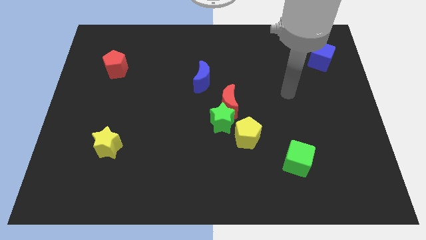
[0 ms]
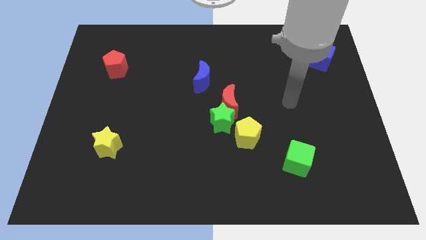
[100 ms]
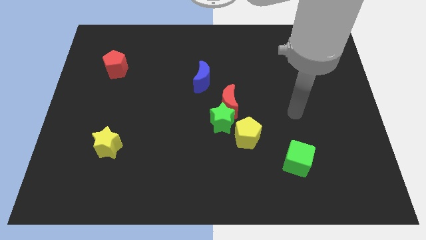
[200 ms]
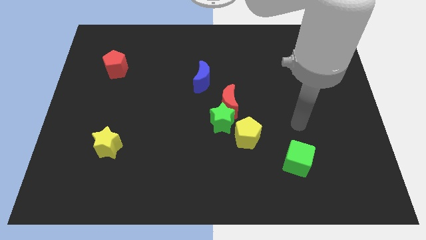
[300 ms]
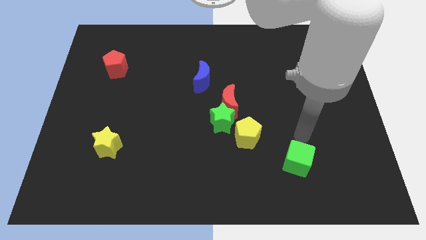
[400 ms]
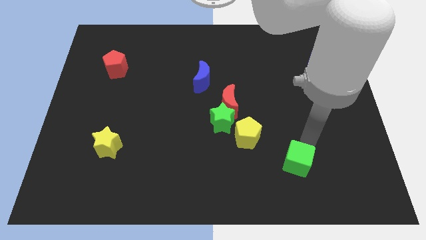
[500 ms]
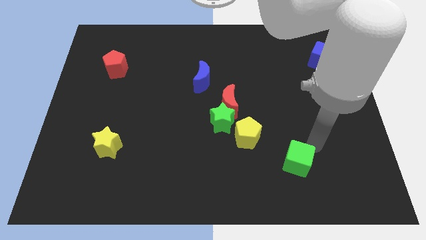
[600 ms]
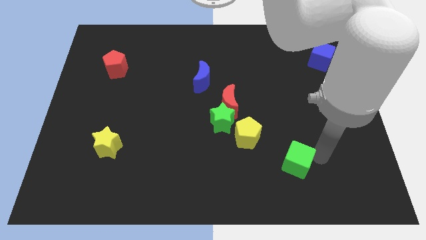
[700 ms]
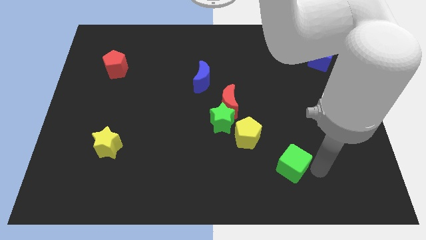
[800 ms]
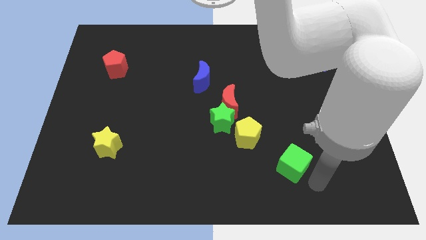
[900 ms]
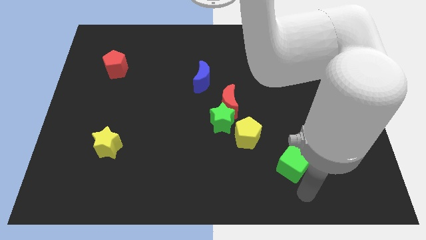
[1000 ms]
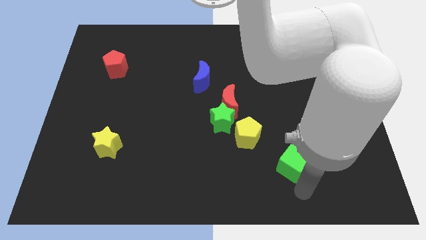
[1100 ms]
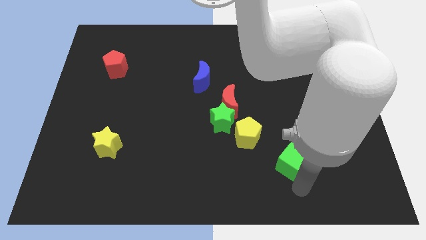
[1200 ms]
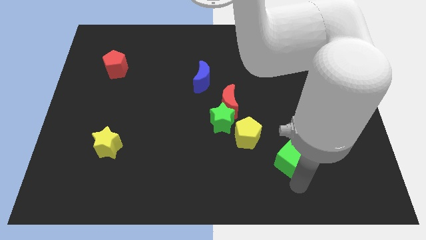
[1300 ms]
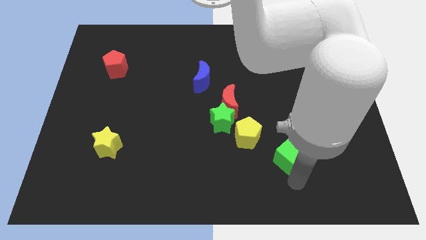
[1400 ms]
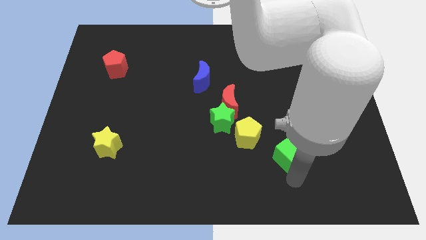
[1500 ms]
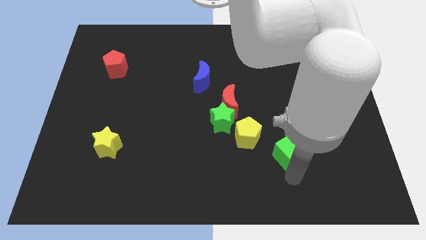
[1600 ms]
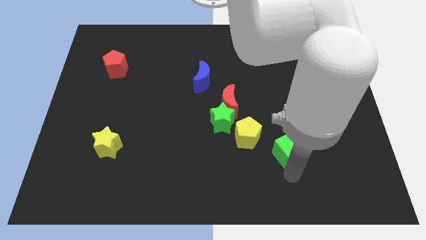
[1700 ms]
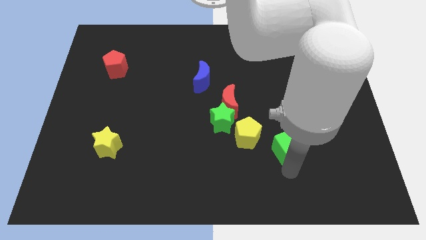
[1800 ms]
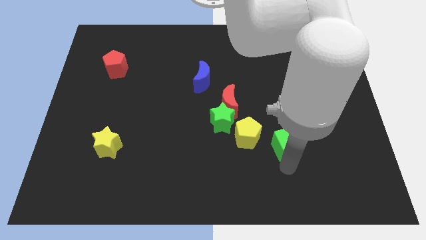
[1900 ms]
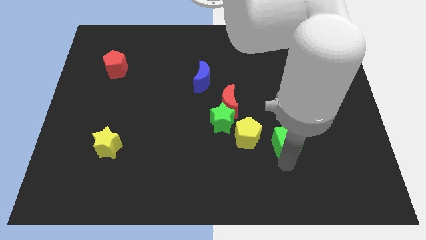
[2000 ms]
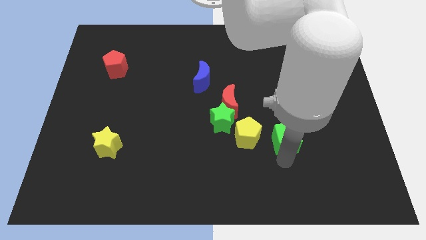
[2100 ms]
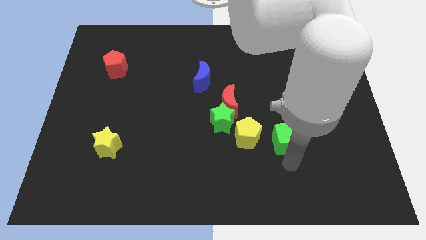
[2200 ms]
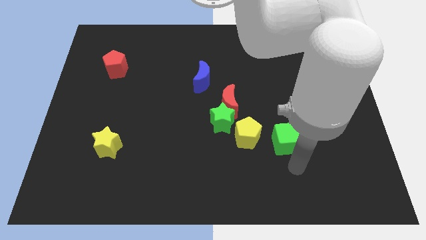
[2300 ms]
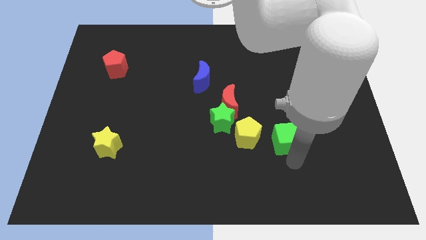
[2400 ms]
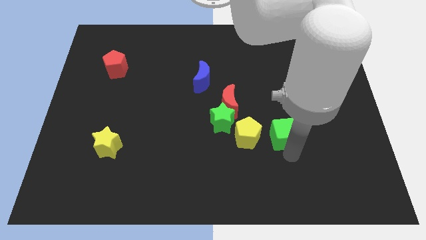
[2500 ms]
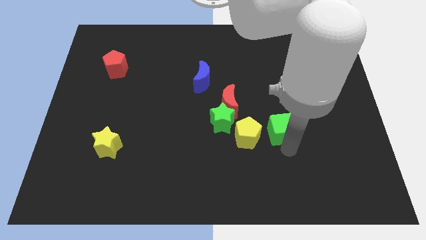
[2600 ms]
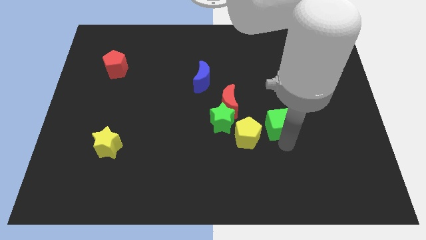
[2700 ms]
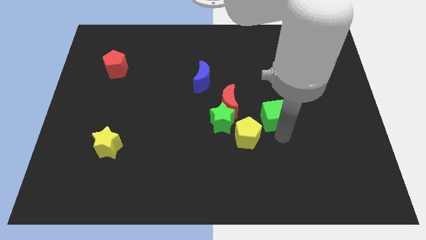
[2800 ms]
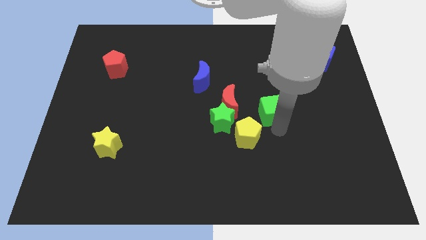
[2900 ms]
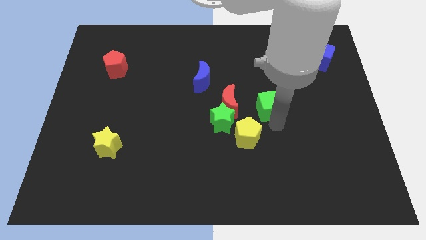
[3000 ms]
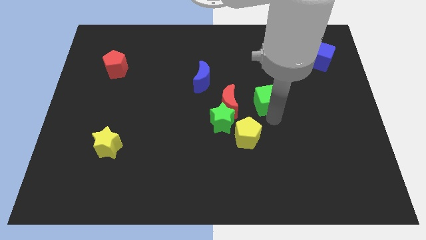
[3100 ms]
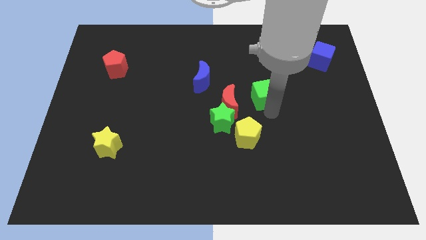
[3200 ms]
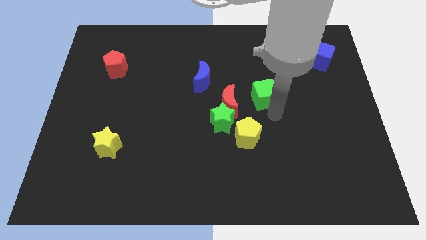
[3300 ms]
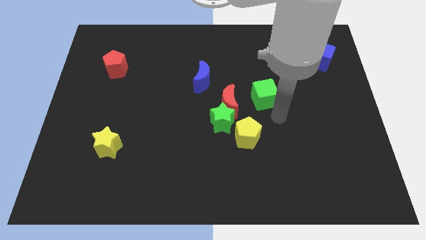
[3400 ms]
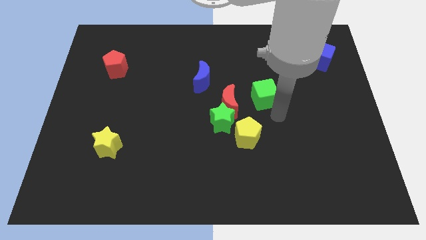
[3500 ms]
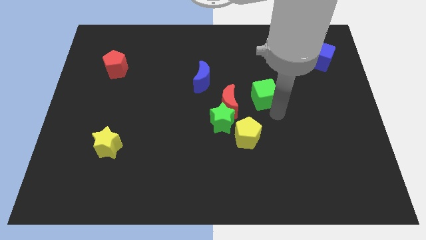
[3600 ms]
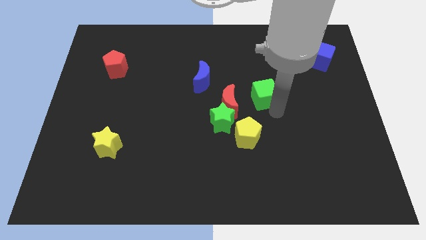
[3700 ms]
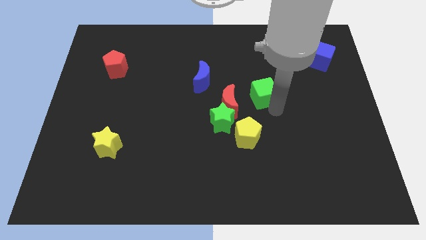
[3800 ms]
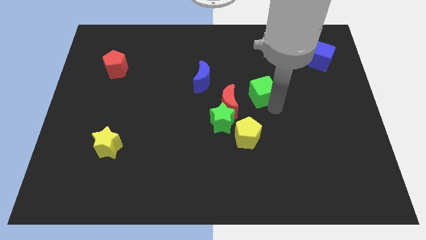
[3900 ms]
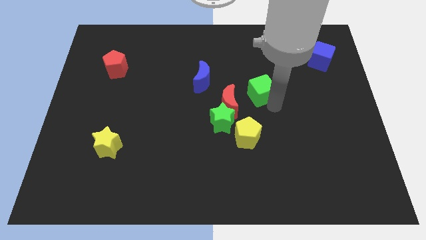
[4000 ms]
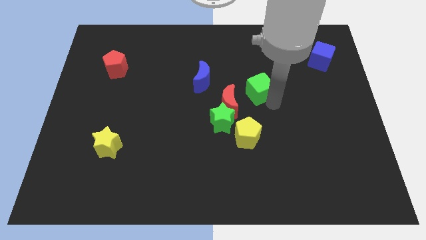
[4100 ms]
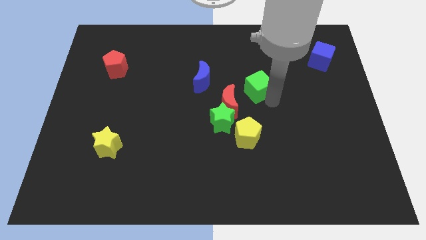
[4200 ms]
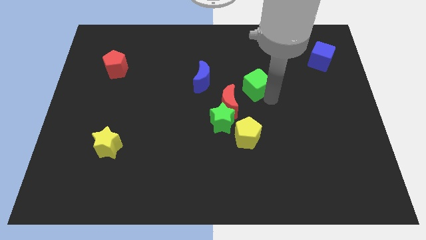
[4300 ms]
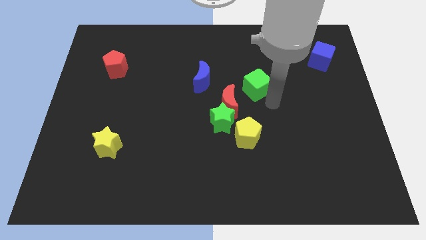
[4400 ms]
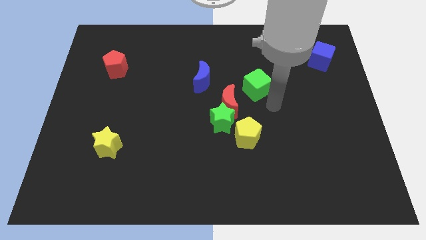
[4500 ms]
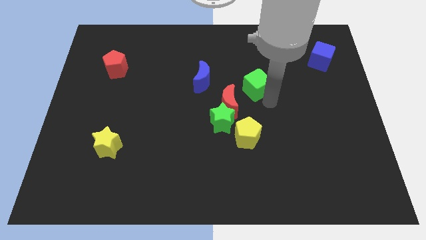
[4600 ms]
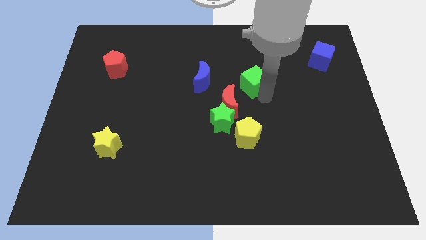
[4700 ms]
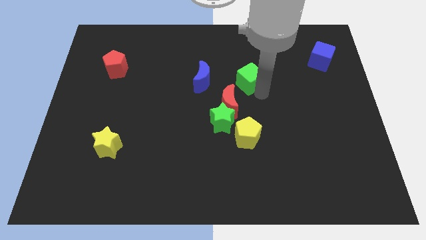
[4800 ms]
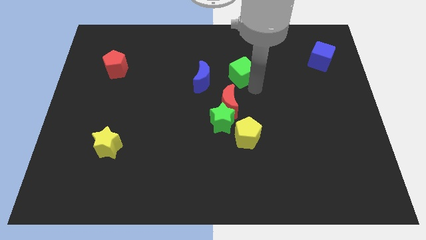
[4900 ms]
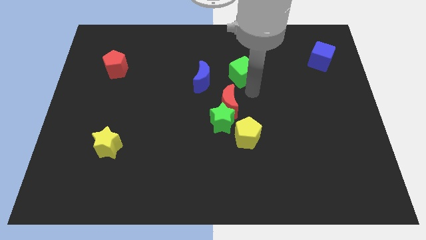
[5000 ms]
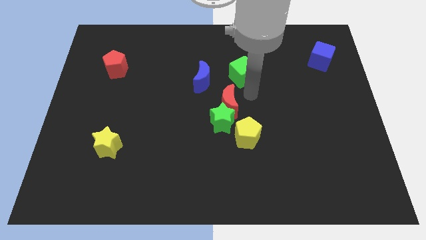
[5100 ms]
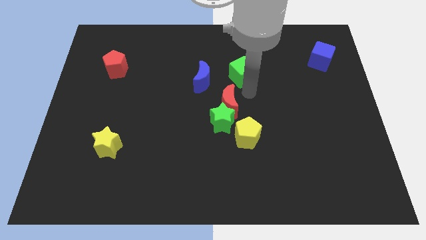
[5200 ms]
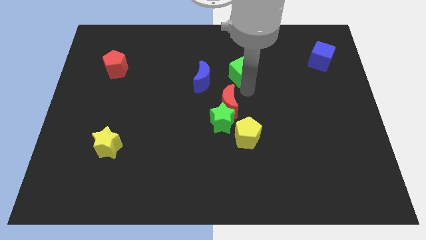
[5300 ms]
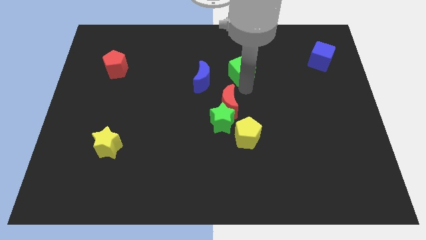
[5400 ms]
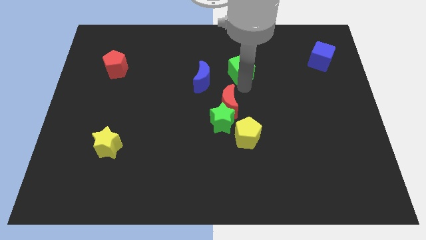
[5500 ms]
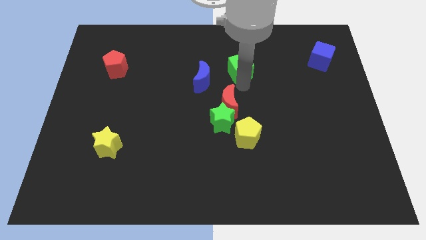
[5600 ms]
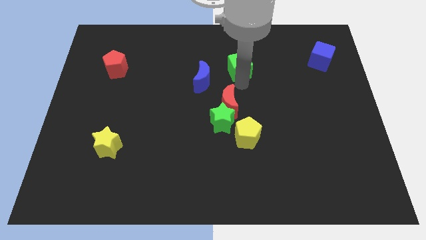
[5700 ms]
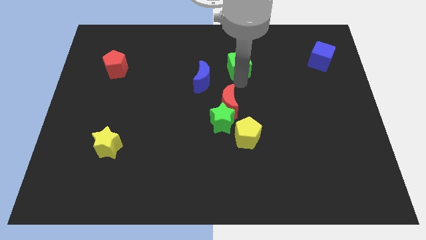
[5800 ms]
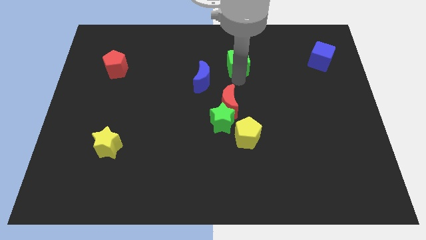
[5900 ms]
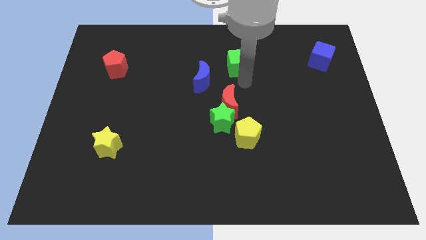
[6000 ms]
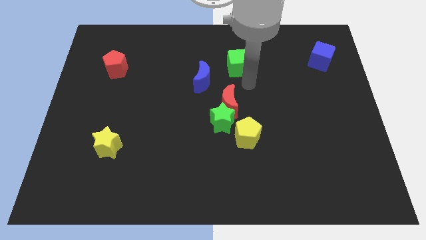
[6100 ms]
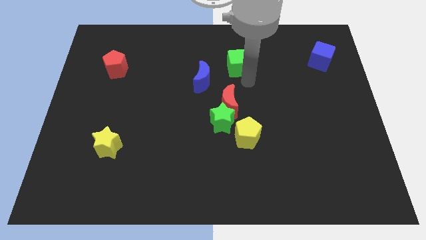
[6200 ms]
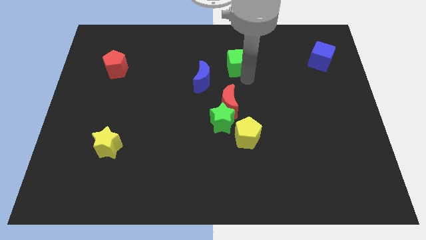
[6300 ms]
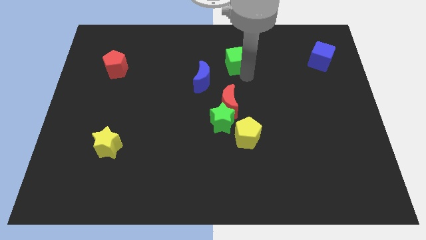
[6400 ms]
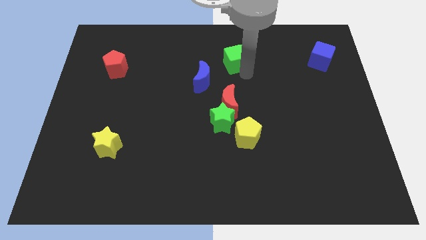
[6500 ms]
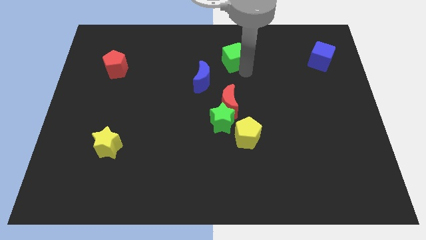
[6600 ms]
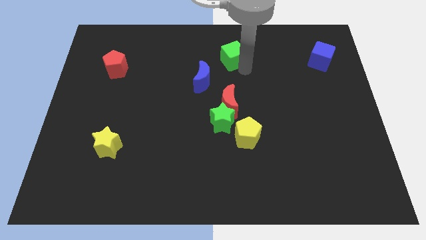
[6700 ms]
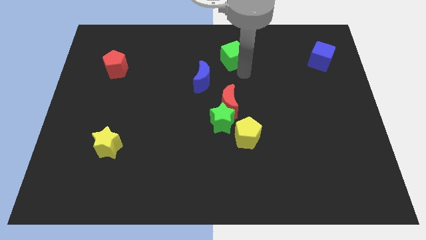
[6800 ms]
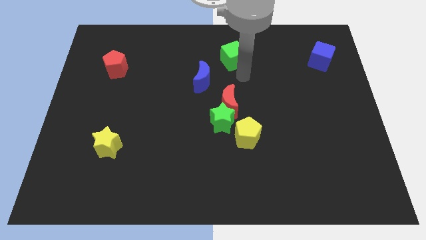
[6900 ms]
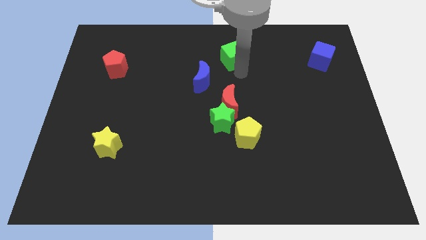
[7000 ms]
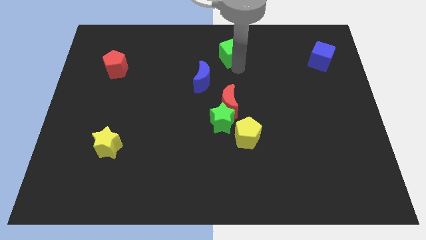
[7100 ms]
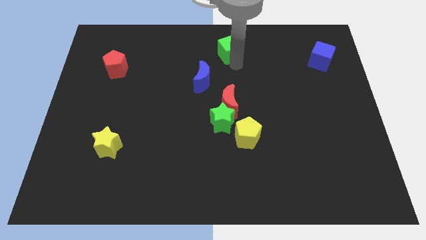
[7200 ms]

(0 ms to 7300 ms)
put the green cube to the top side

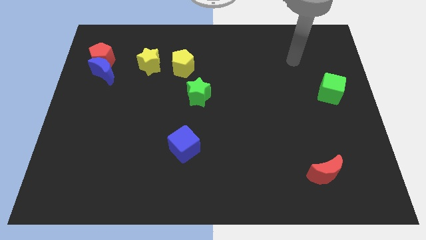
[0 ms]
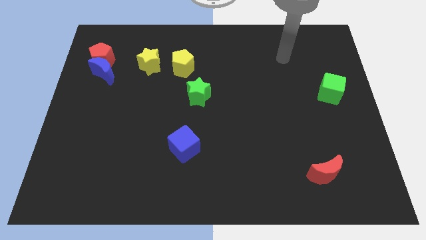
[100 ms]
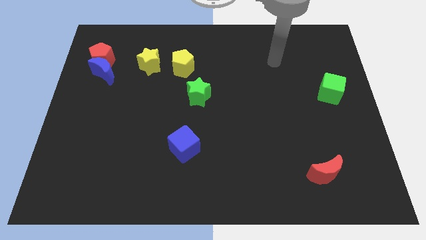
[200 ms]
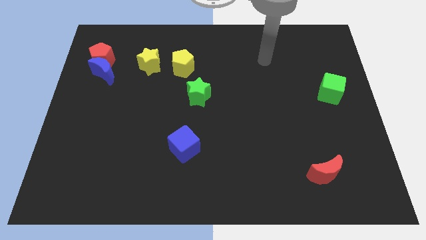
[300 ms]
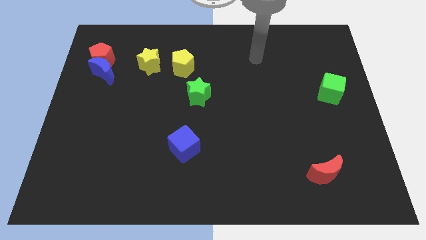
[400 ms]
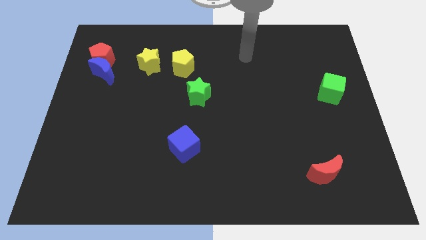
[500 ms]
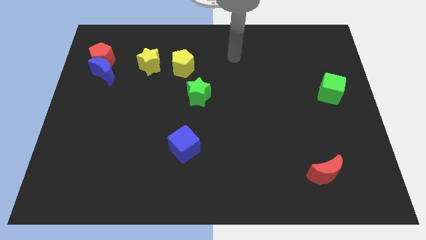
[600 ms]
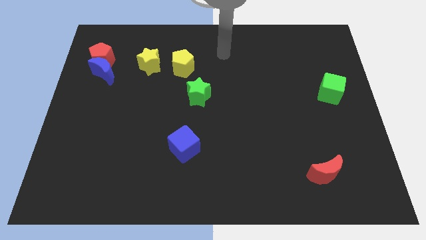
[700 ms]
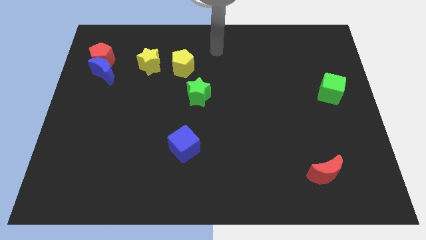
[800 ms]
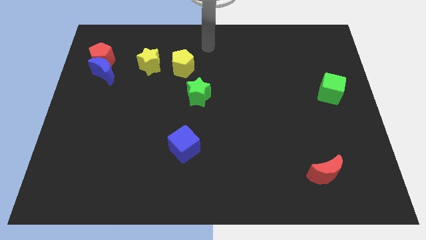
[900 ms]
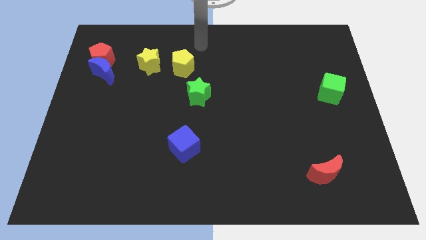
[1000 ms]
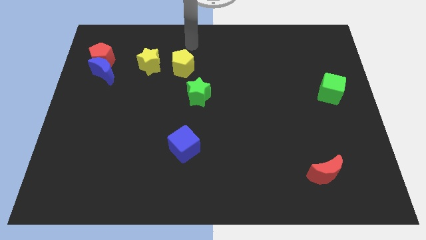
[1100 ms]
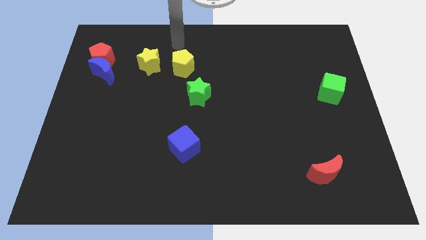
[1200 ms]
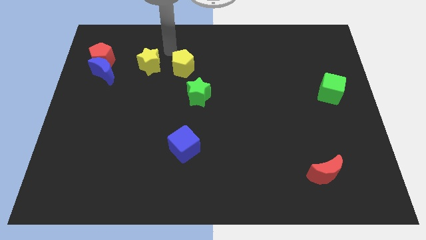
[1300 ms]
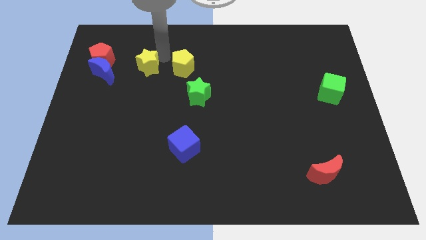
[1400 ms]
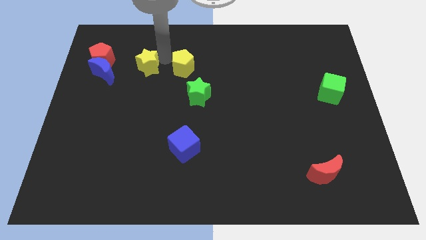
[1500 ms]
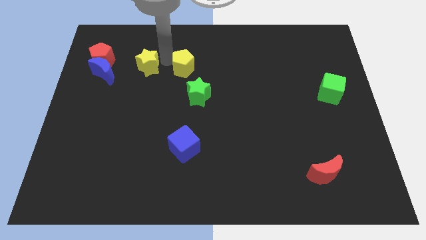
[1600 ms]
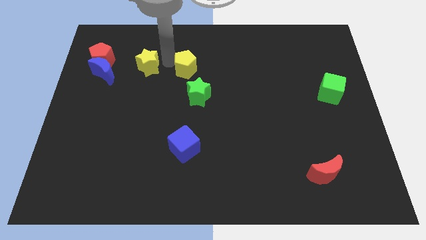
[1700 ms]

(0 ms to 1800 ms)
put the yellow pentagon to the middle of the board
